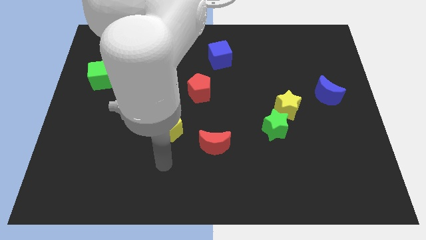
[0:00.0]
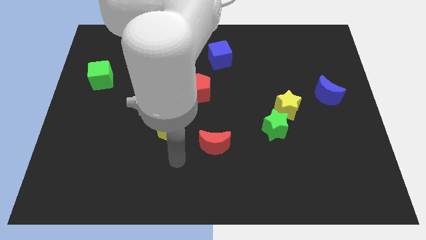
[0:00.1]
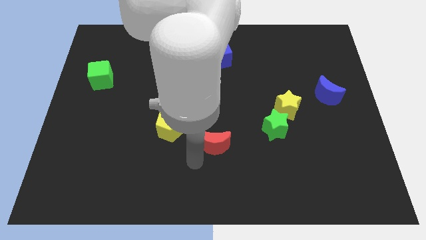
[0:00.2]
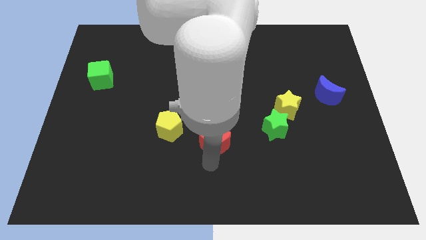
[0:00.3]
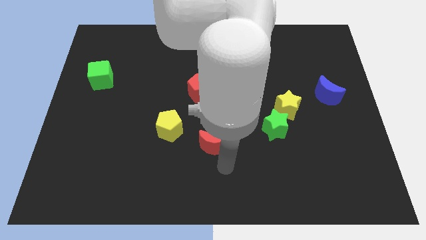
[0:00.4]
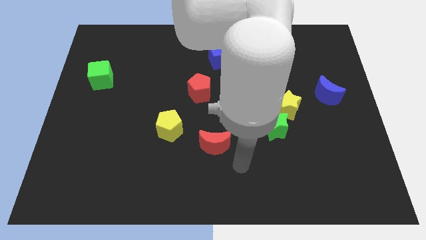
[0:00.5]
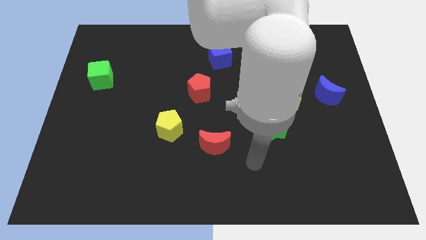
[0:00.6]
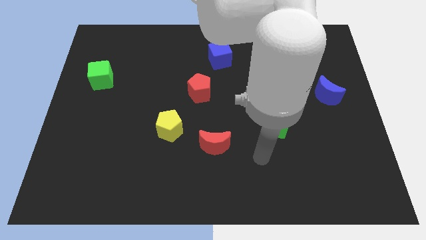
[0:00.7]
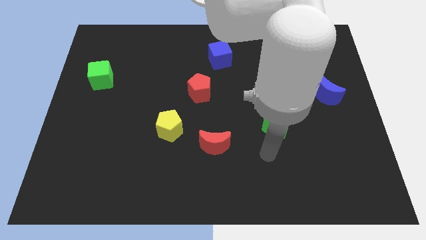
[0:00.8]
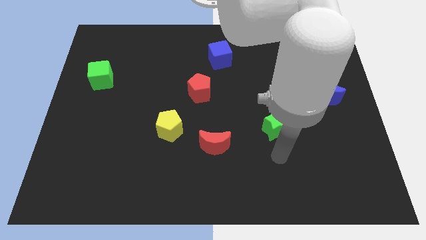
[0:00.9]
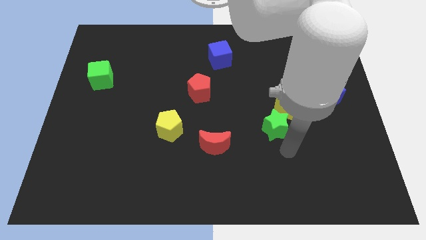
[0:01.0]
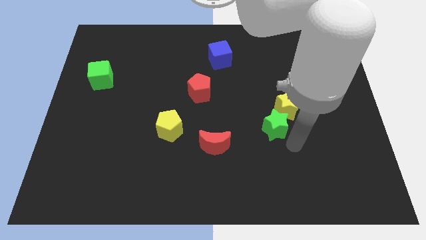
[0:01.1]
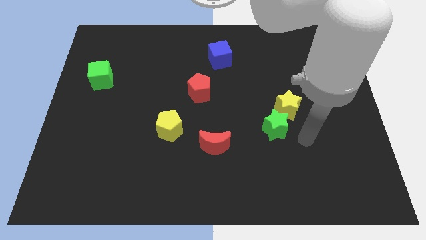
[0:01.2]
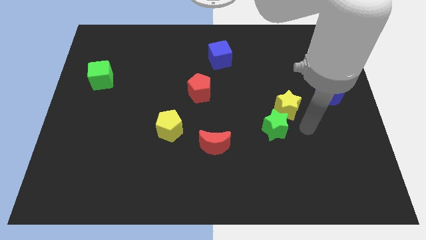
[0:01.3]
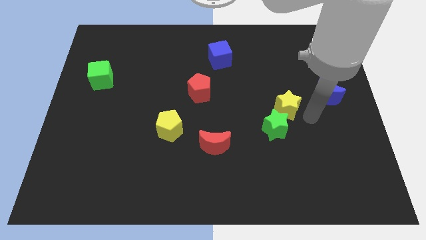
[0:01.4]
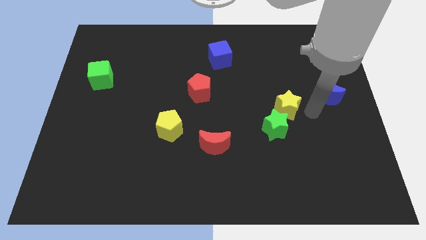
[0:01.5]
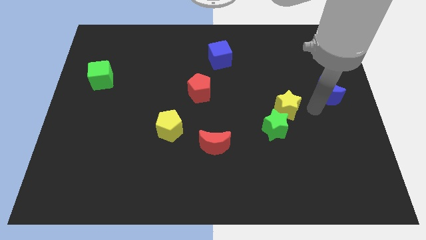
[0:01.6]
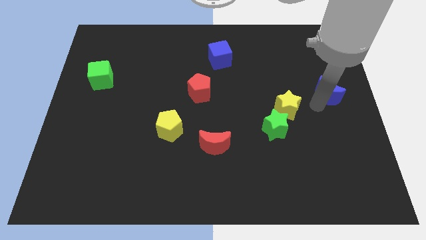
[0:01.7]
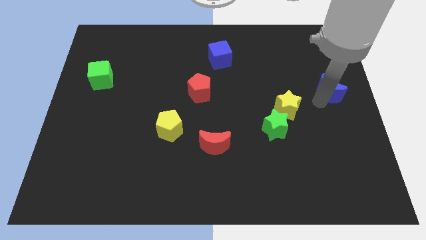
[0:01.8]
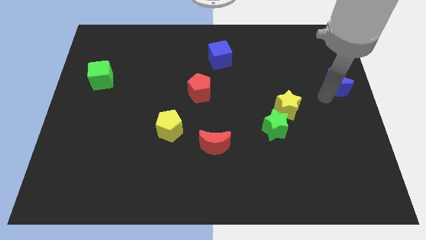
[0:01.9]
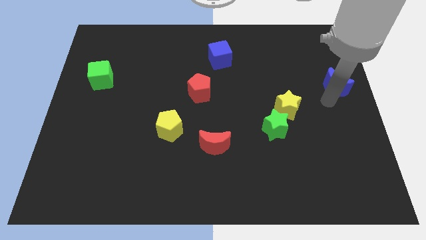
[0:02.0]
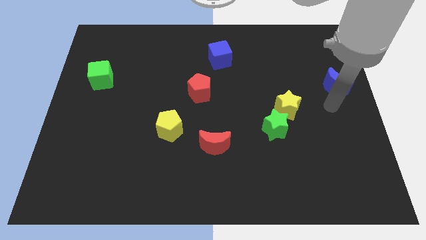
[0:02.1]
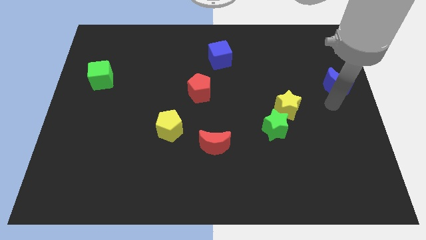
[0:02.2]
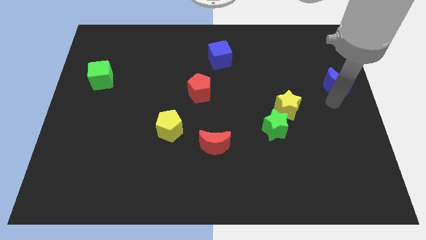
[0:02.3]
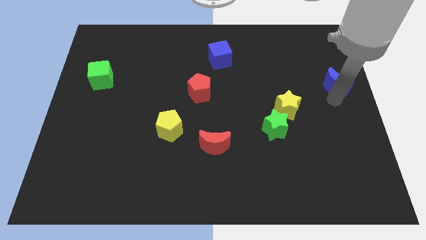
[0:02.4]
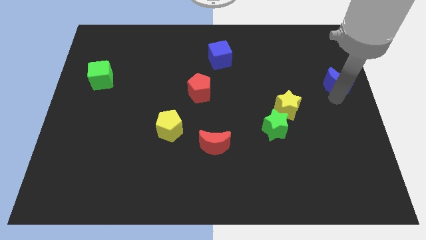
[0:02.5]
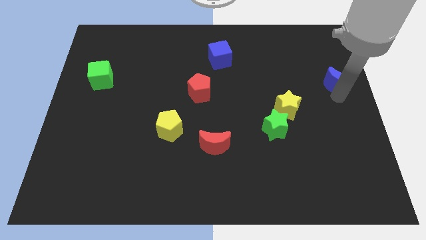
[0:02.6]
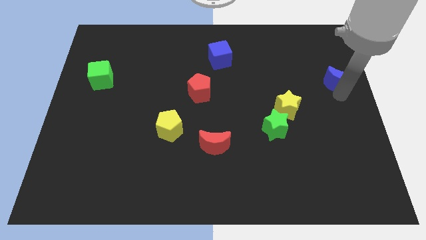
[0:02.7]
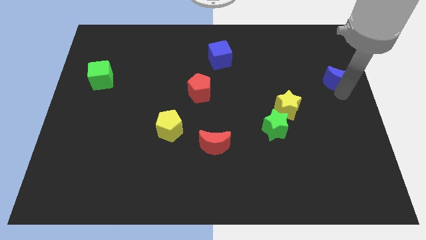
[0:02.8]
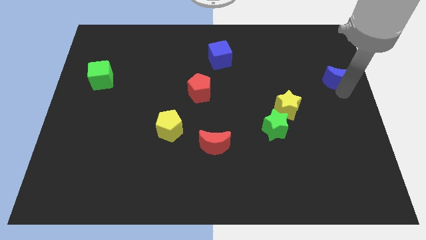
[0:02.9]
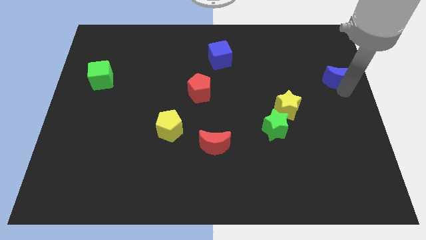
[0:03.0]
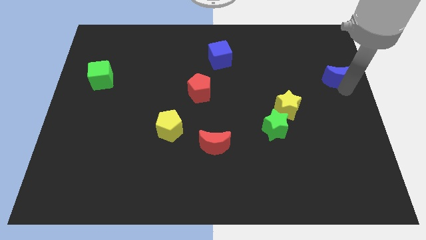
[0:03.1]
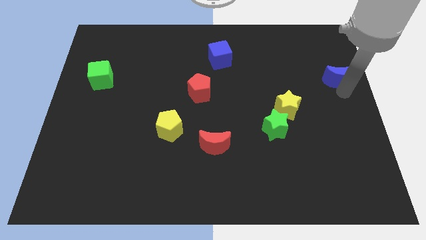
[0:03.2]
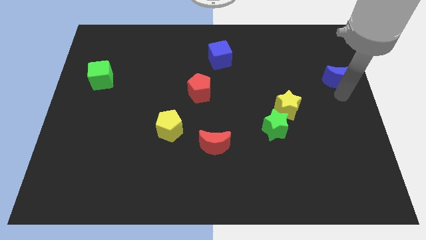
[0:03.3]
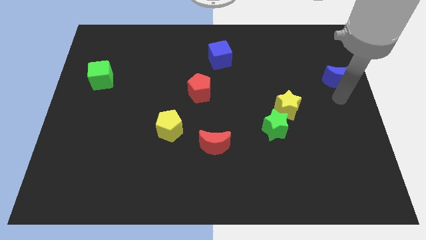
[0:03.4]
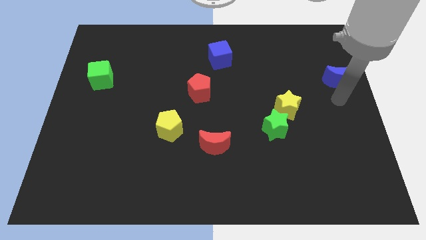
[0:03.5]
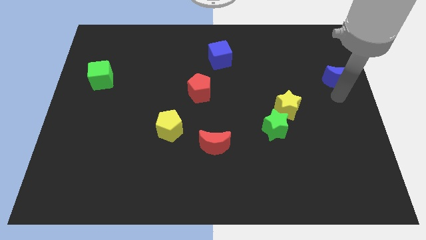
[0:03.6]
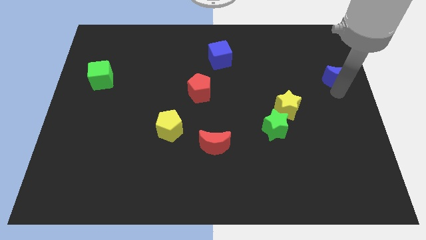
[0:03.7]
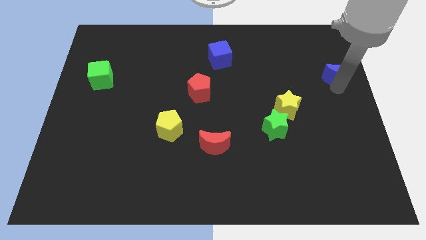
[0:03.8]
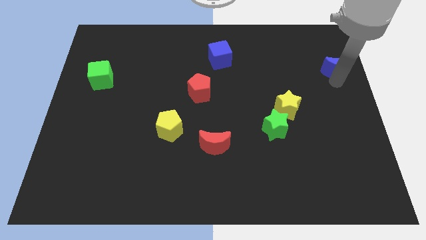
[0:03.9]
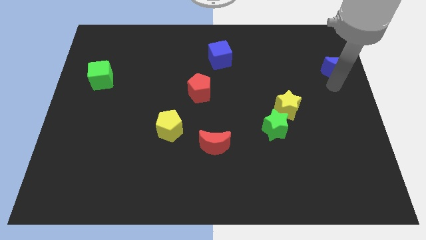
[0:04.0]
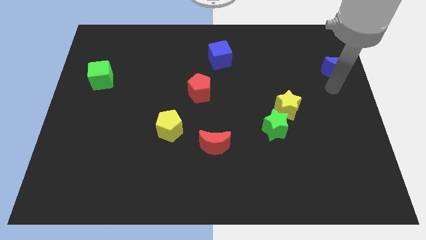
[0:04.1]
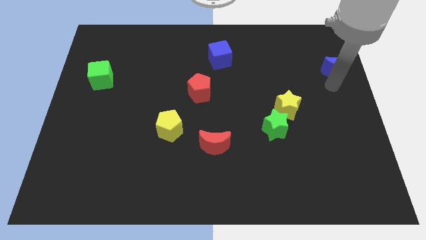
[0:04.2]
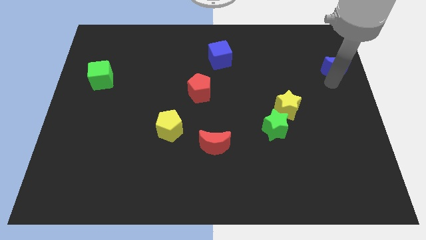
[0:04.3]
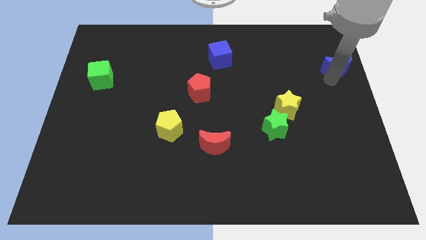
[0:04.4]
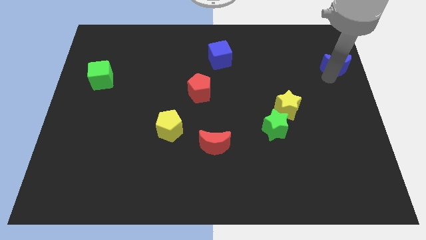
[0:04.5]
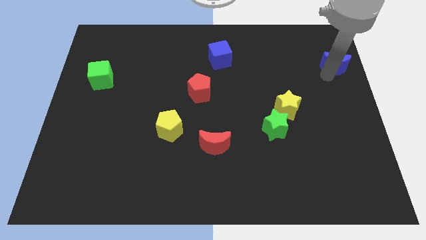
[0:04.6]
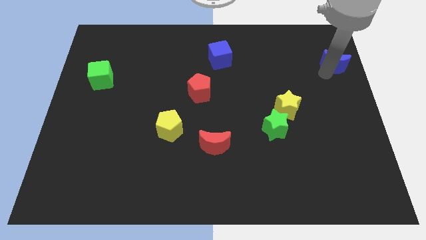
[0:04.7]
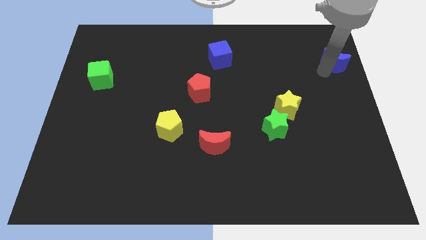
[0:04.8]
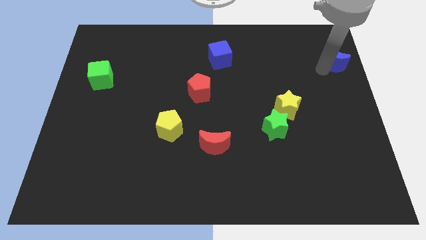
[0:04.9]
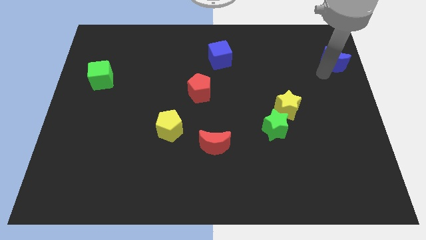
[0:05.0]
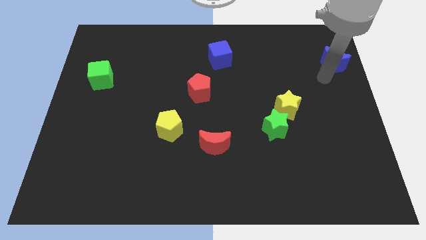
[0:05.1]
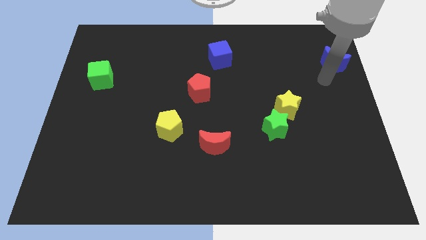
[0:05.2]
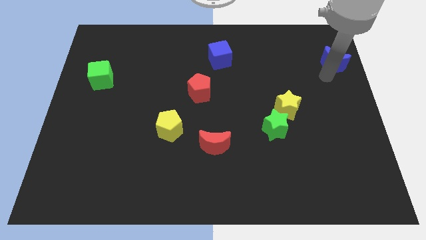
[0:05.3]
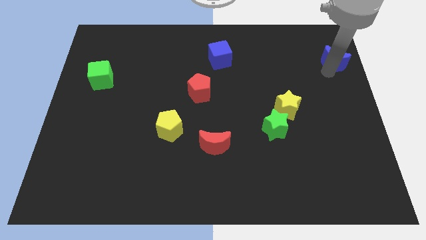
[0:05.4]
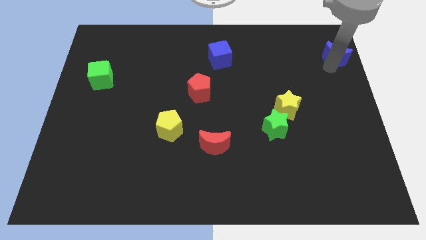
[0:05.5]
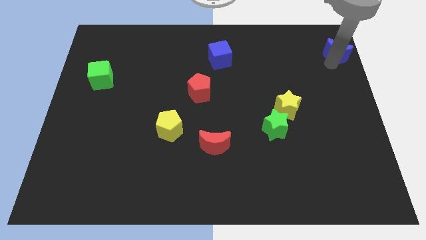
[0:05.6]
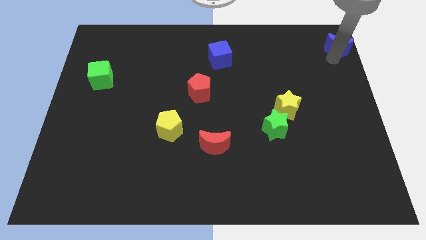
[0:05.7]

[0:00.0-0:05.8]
move the blue moon to the upper right corner
